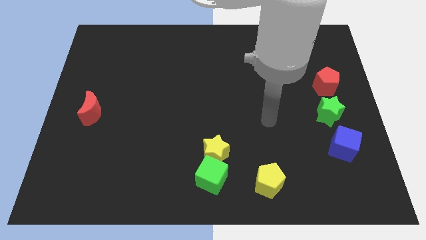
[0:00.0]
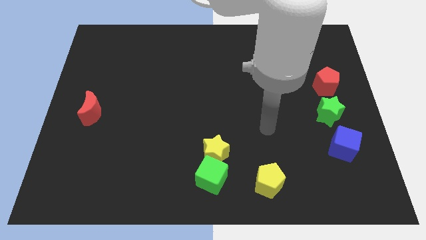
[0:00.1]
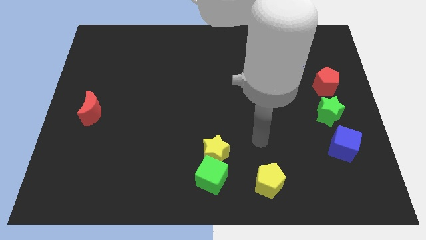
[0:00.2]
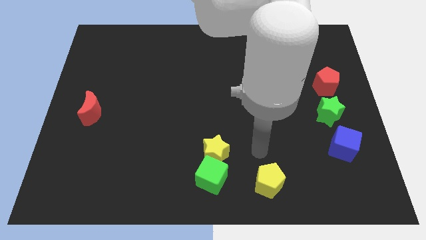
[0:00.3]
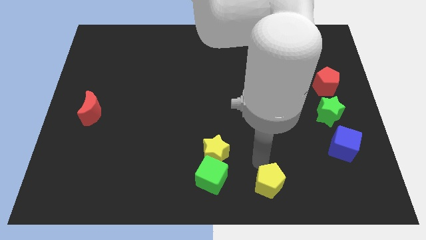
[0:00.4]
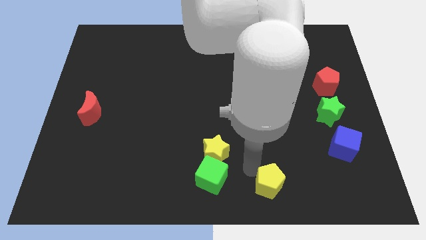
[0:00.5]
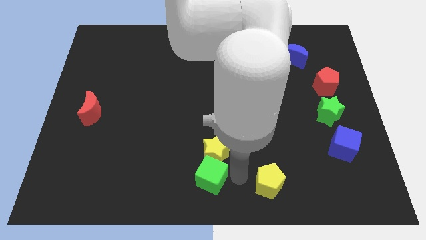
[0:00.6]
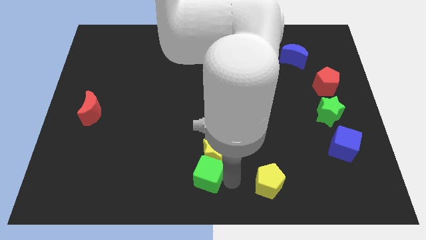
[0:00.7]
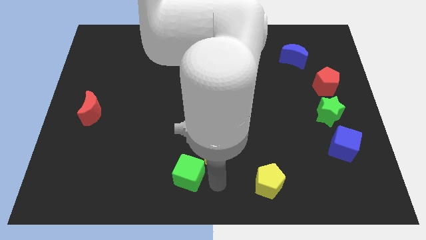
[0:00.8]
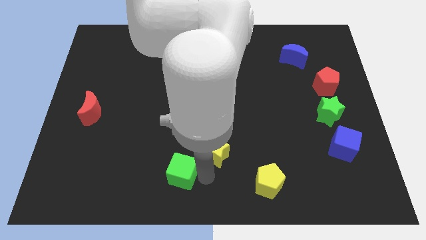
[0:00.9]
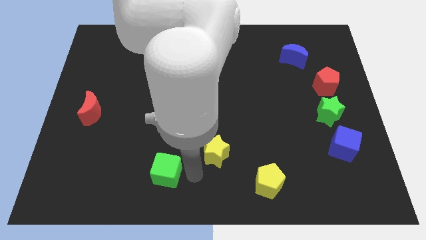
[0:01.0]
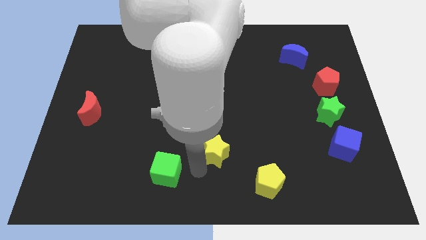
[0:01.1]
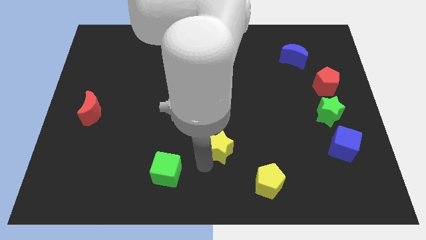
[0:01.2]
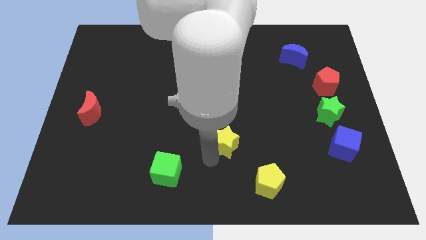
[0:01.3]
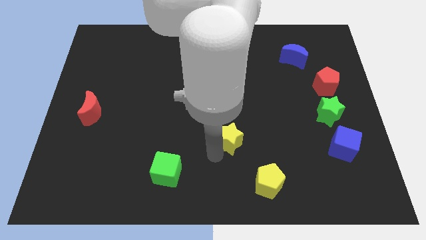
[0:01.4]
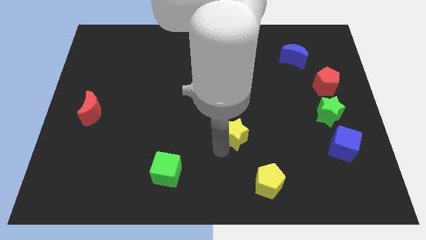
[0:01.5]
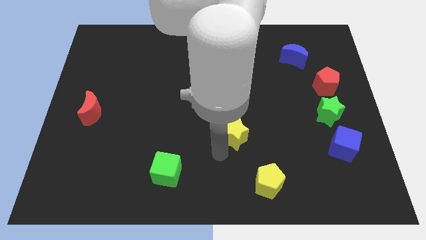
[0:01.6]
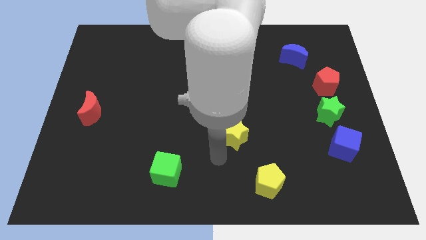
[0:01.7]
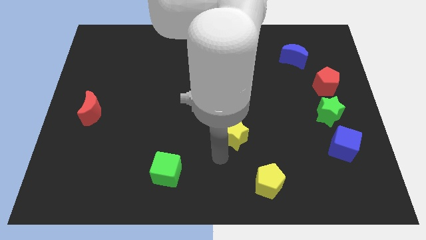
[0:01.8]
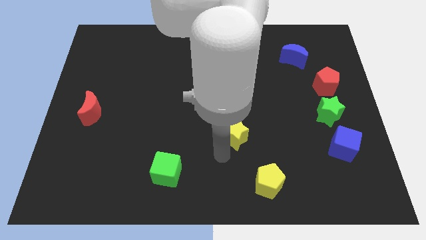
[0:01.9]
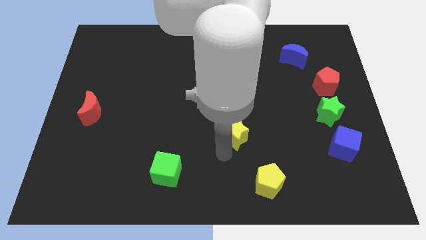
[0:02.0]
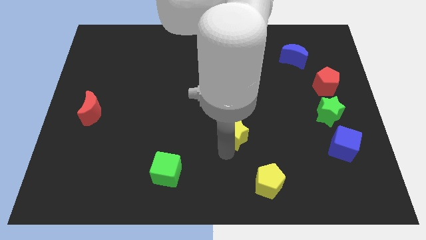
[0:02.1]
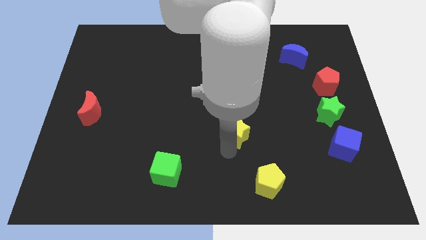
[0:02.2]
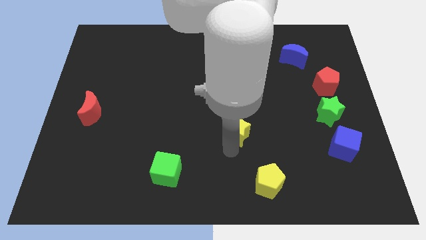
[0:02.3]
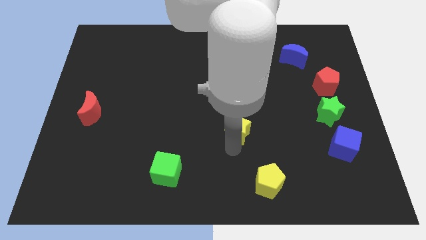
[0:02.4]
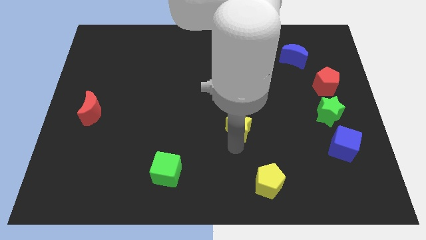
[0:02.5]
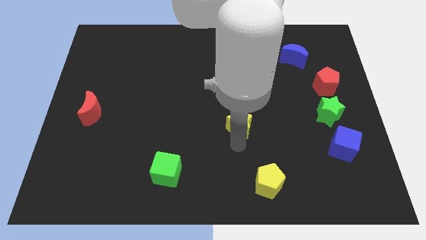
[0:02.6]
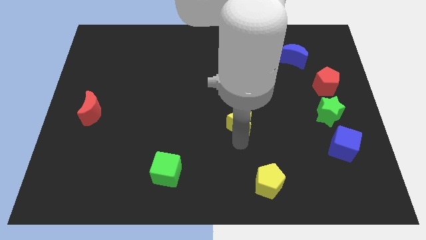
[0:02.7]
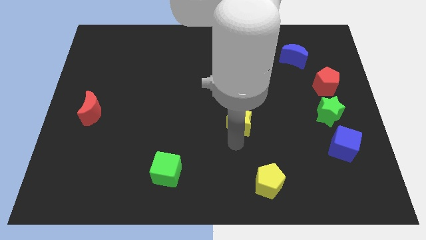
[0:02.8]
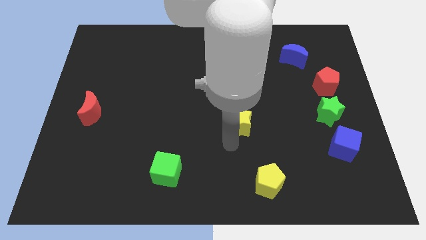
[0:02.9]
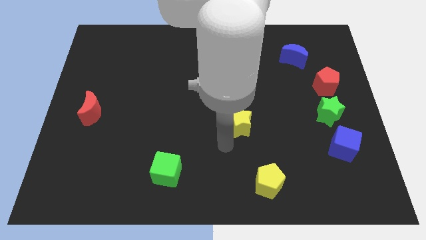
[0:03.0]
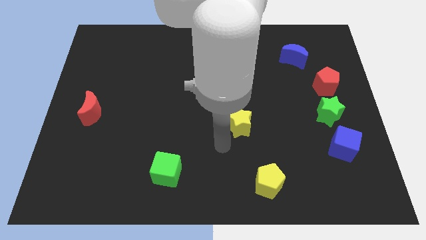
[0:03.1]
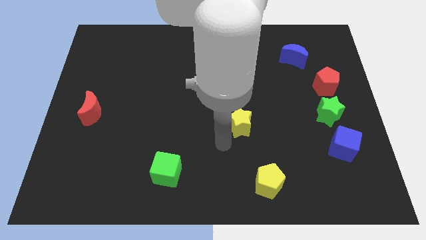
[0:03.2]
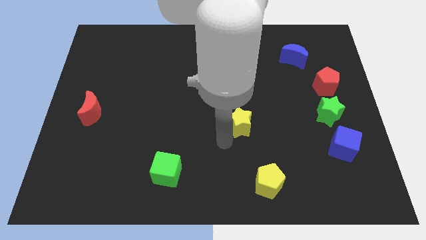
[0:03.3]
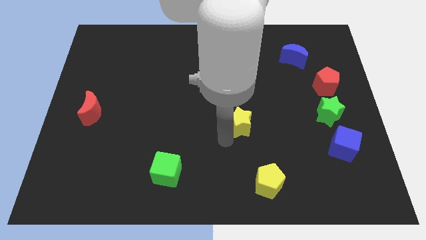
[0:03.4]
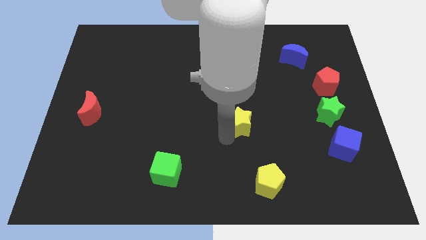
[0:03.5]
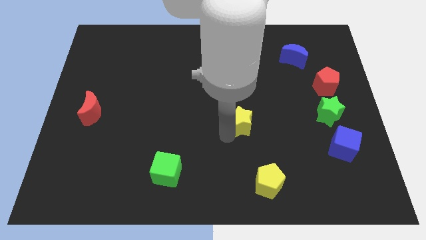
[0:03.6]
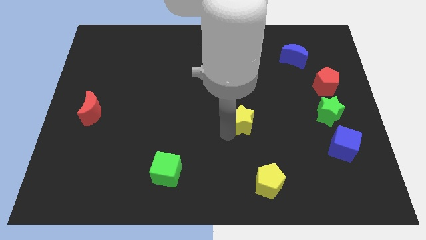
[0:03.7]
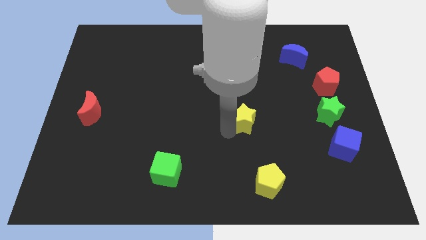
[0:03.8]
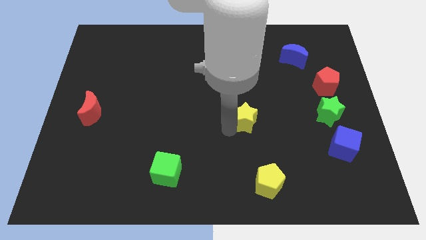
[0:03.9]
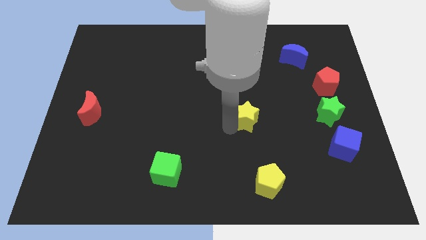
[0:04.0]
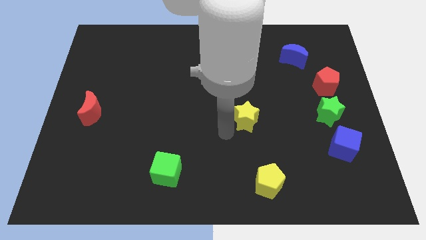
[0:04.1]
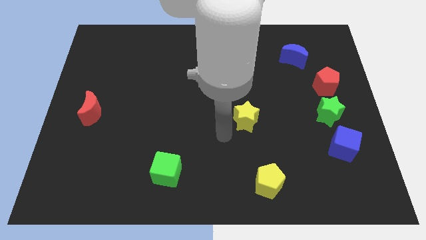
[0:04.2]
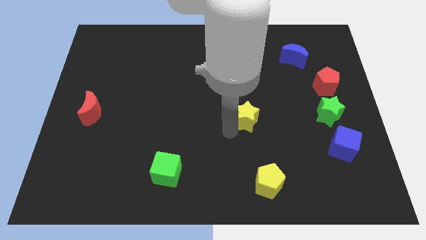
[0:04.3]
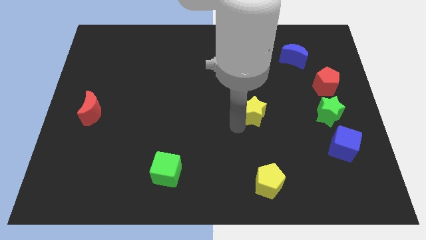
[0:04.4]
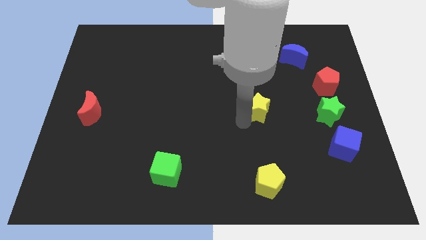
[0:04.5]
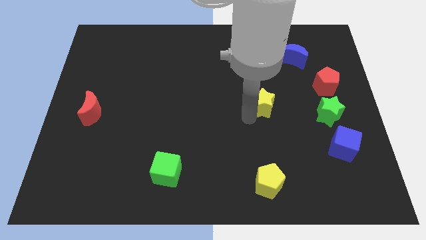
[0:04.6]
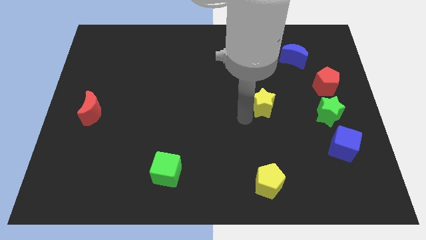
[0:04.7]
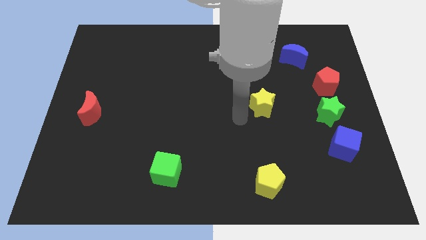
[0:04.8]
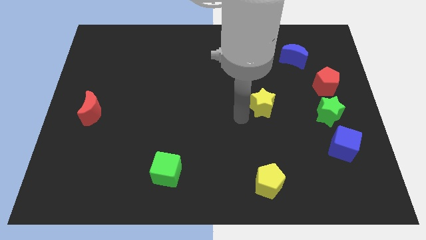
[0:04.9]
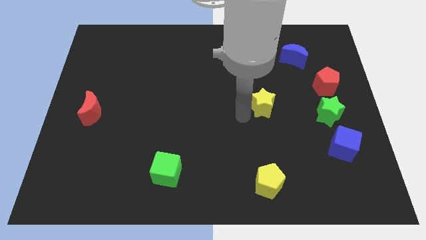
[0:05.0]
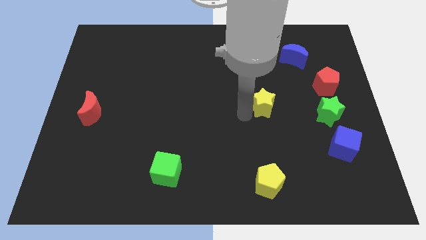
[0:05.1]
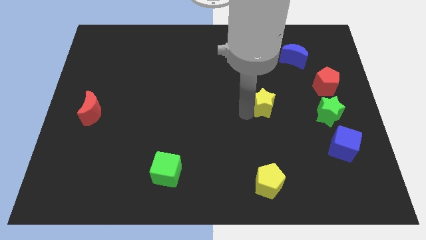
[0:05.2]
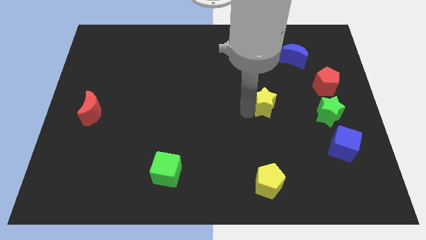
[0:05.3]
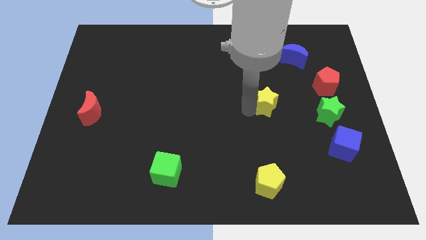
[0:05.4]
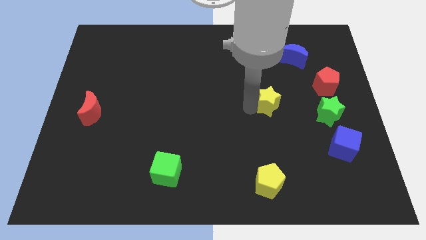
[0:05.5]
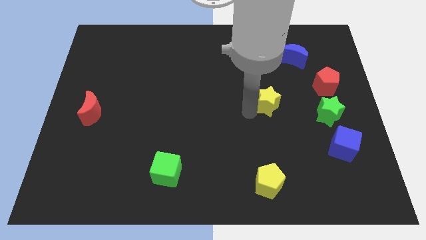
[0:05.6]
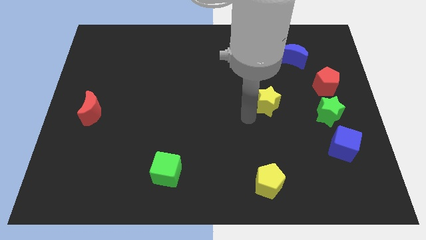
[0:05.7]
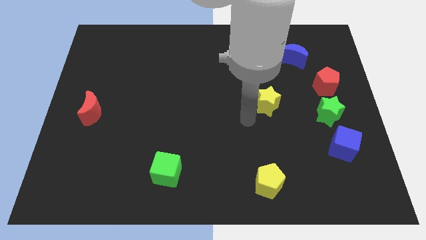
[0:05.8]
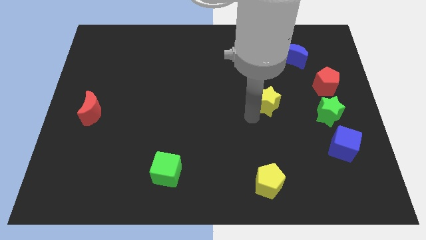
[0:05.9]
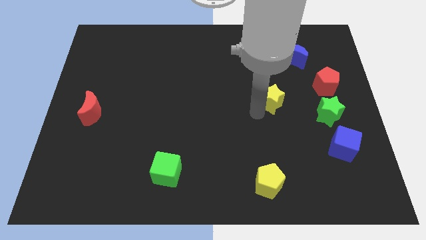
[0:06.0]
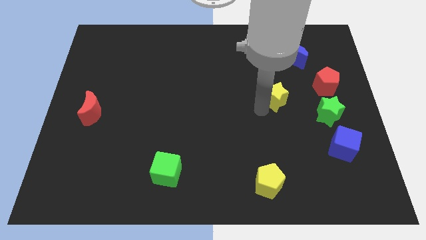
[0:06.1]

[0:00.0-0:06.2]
push the yellow star up and to the right diagonally

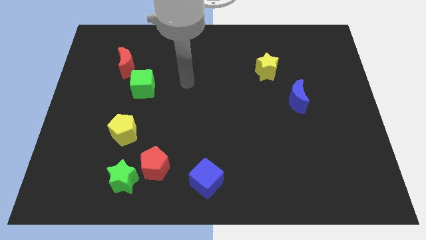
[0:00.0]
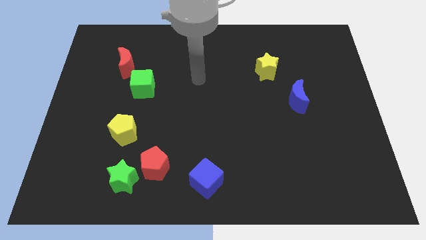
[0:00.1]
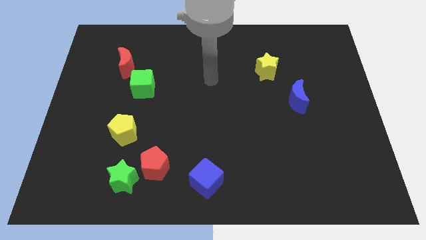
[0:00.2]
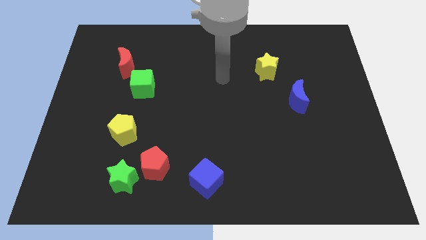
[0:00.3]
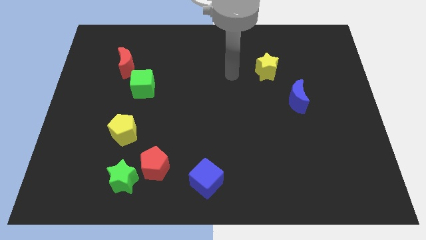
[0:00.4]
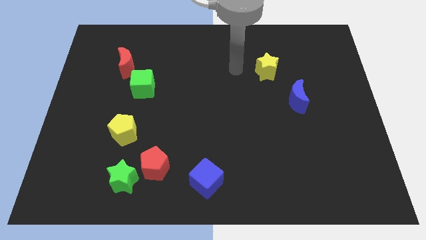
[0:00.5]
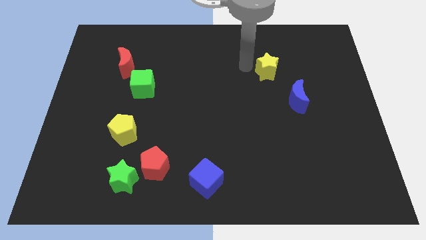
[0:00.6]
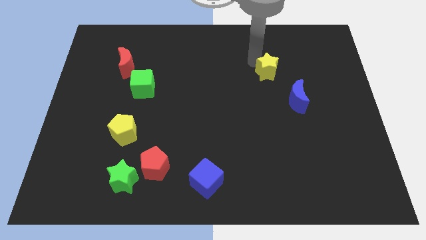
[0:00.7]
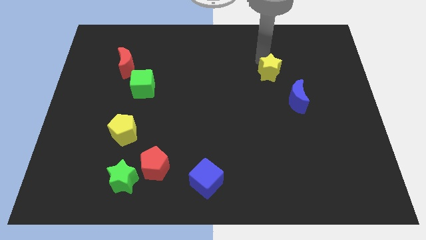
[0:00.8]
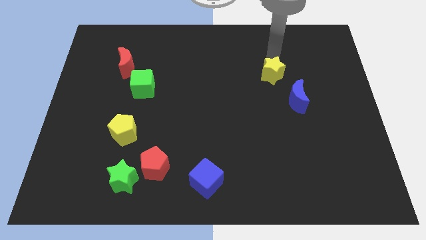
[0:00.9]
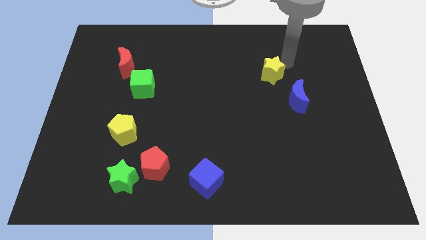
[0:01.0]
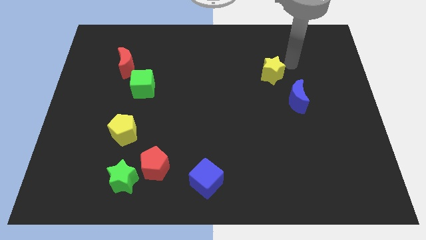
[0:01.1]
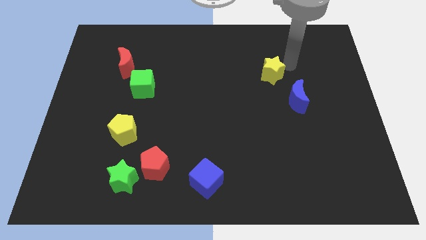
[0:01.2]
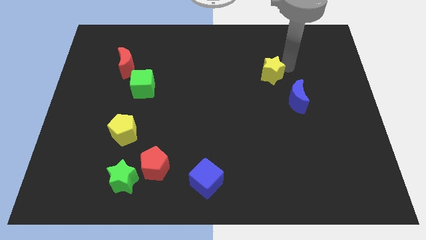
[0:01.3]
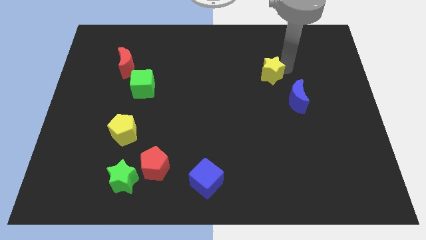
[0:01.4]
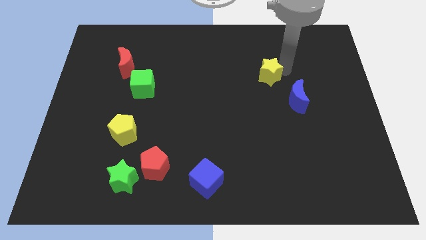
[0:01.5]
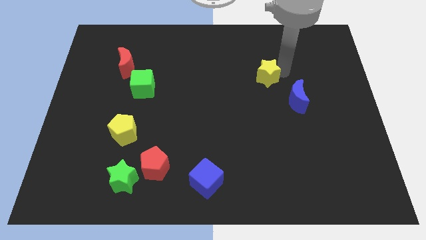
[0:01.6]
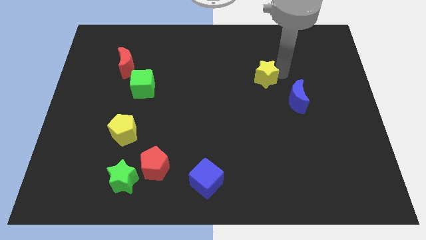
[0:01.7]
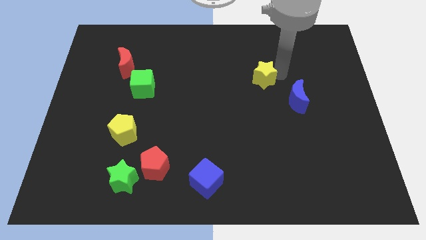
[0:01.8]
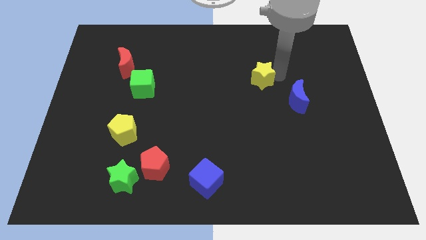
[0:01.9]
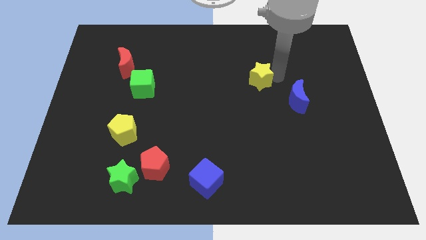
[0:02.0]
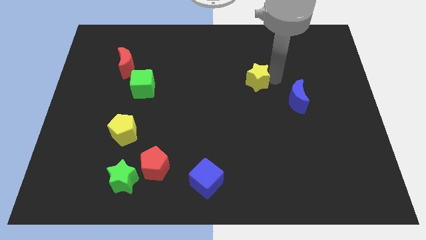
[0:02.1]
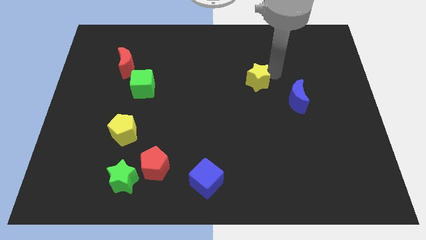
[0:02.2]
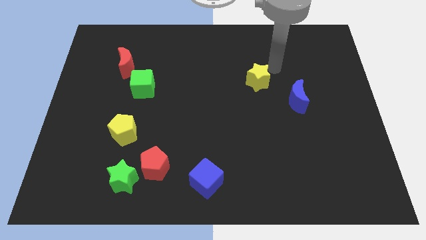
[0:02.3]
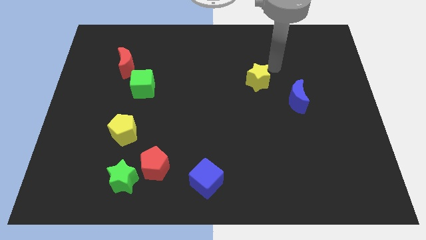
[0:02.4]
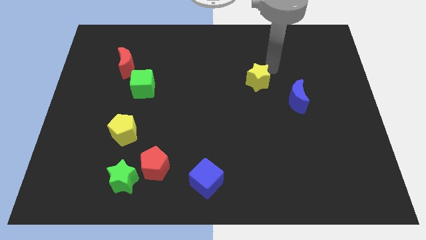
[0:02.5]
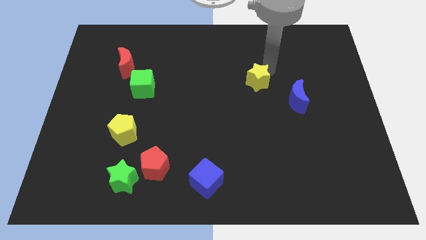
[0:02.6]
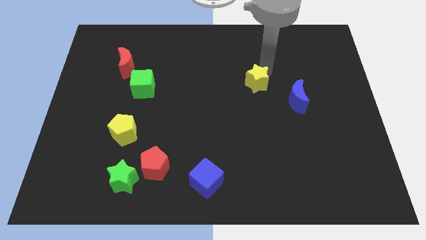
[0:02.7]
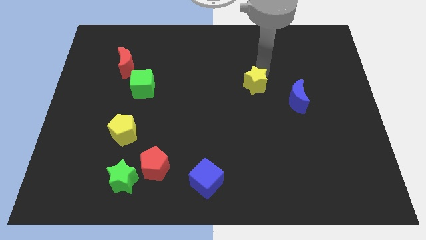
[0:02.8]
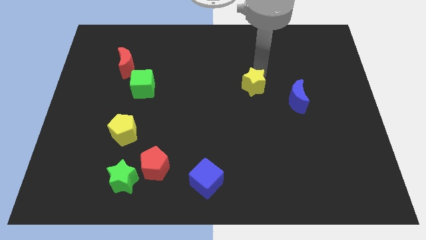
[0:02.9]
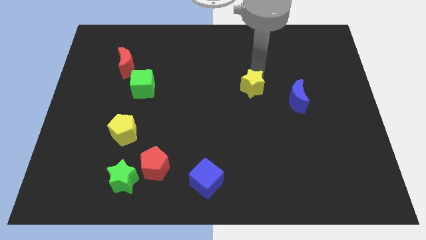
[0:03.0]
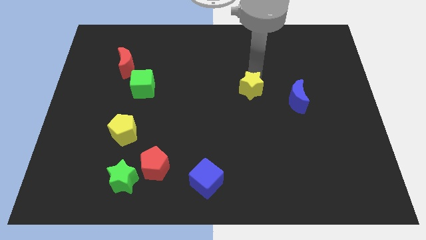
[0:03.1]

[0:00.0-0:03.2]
push the yellow star downwards and then to the left a bit
